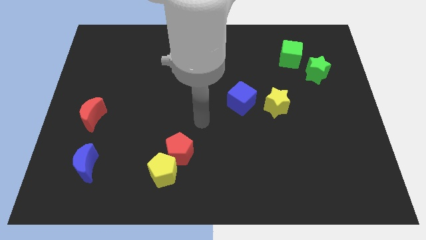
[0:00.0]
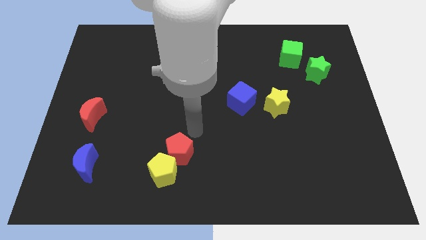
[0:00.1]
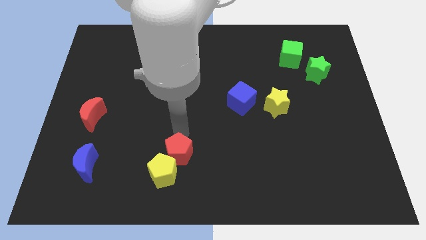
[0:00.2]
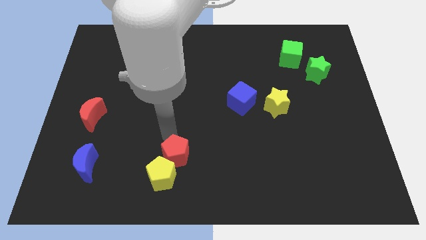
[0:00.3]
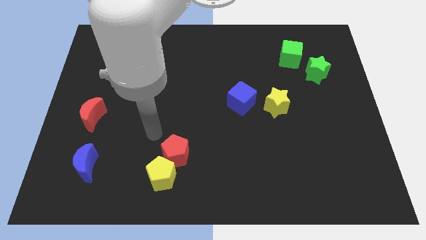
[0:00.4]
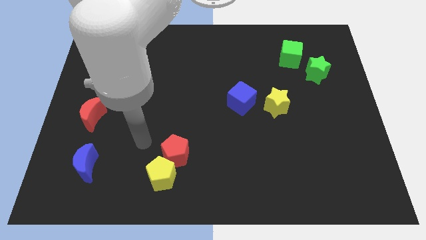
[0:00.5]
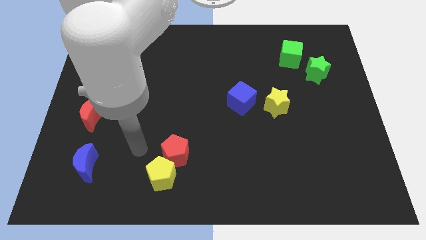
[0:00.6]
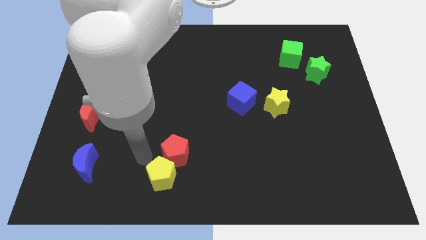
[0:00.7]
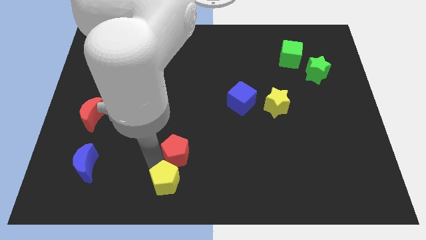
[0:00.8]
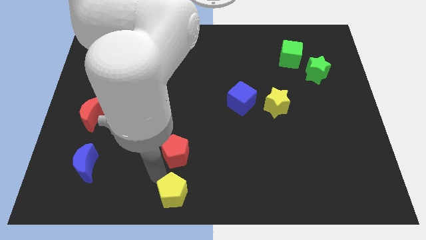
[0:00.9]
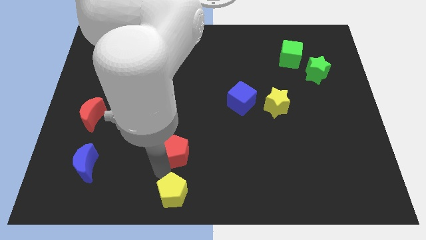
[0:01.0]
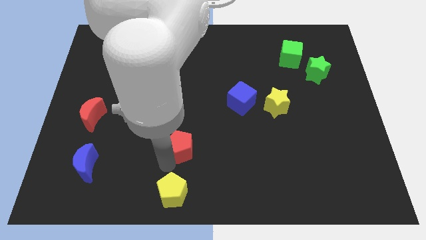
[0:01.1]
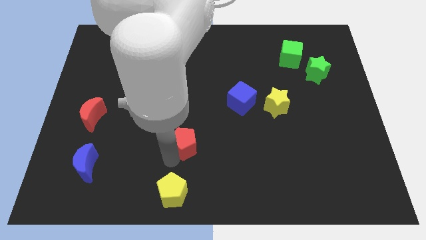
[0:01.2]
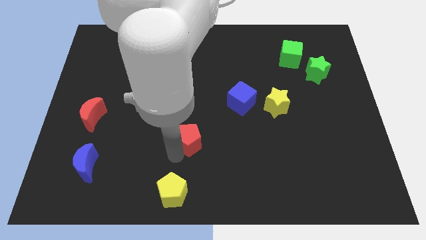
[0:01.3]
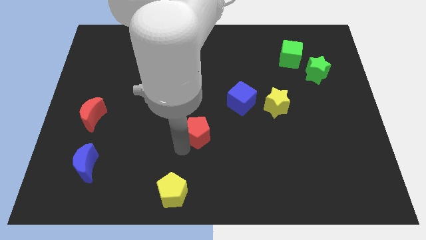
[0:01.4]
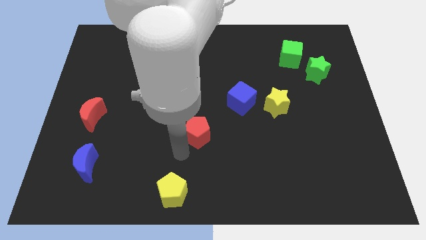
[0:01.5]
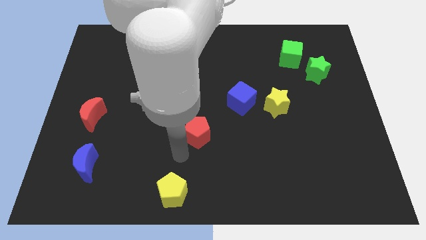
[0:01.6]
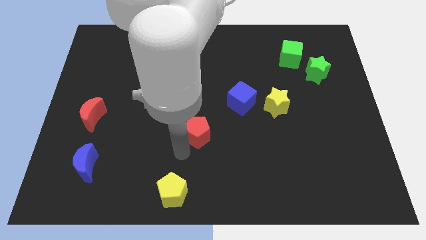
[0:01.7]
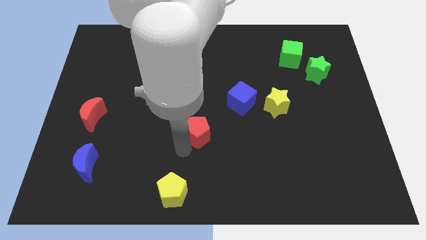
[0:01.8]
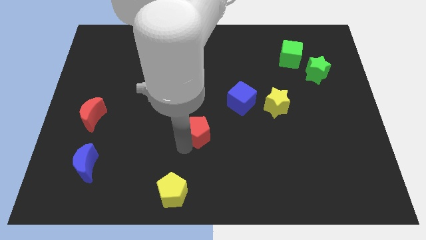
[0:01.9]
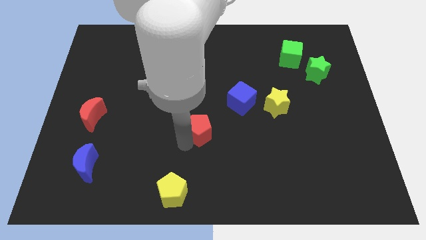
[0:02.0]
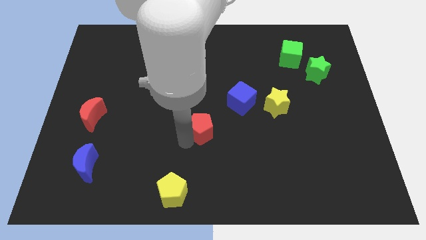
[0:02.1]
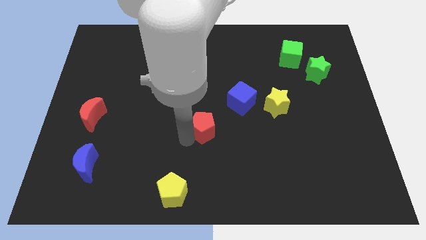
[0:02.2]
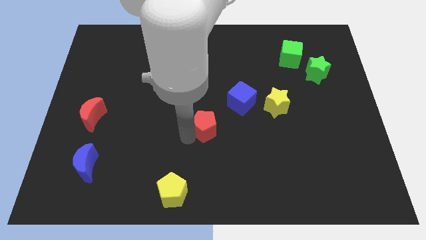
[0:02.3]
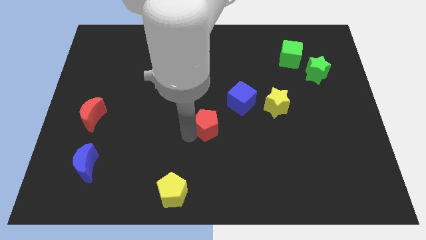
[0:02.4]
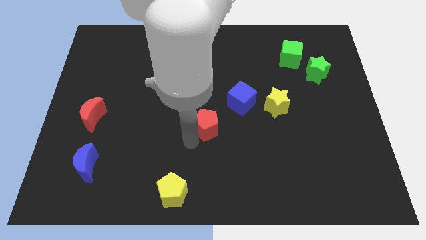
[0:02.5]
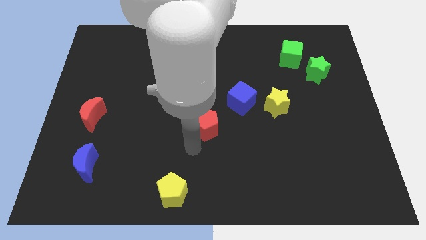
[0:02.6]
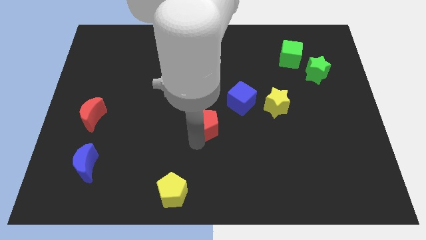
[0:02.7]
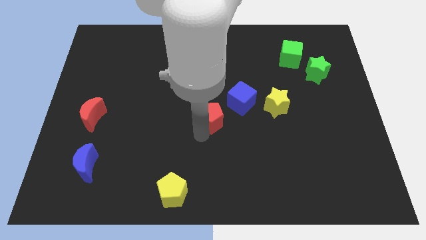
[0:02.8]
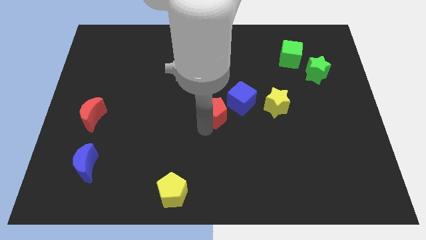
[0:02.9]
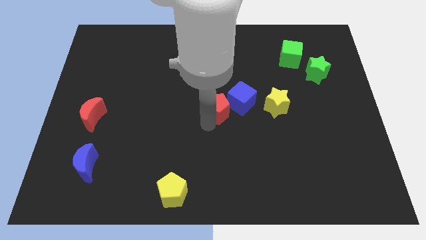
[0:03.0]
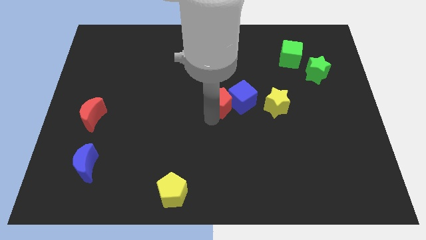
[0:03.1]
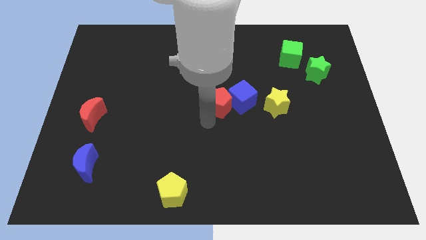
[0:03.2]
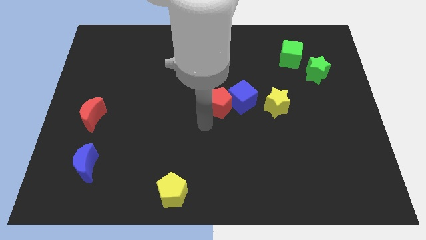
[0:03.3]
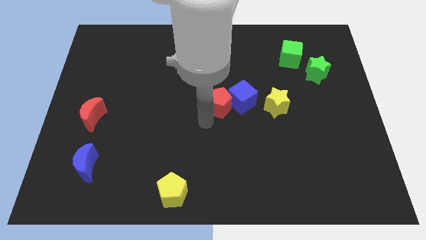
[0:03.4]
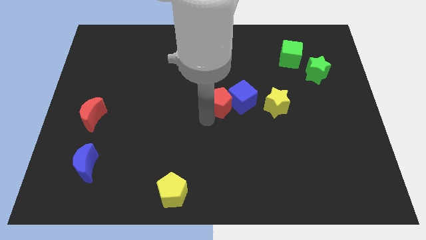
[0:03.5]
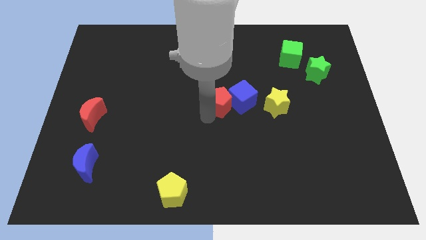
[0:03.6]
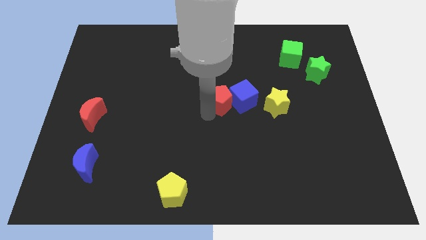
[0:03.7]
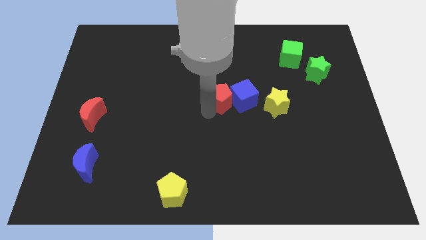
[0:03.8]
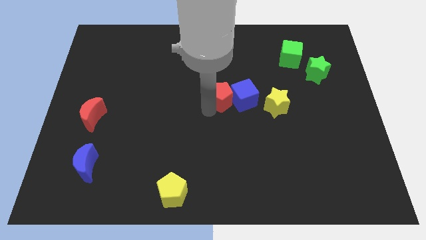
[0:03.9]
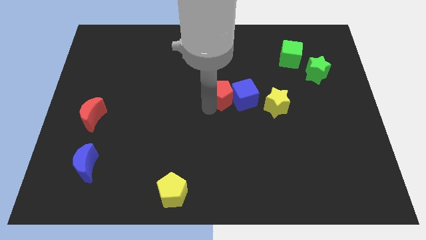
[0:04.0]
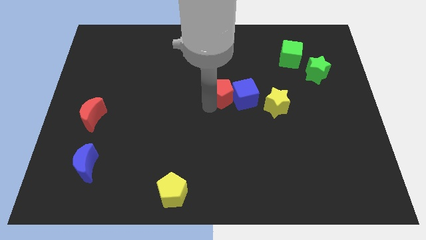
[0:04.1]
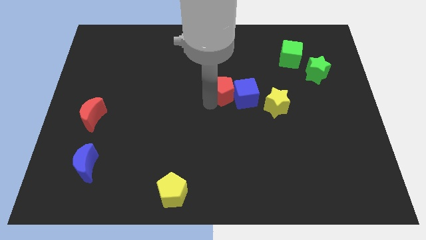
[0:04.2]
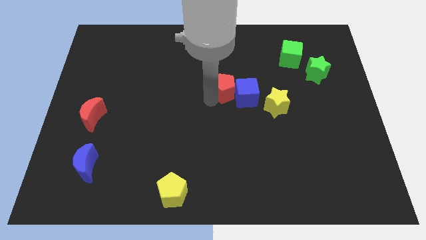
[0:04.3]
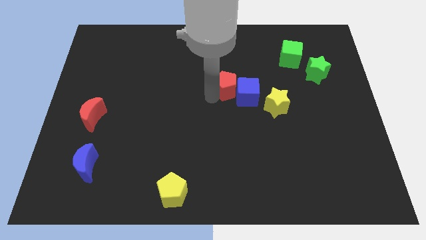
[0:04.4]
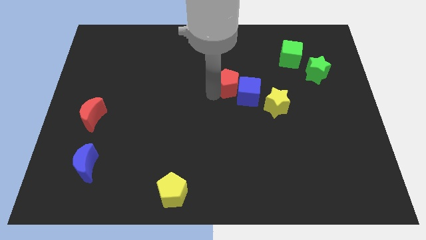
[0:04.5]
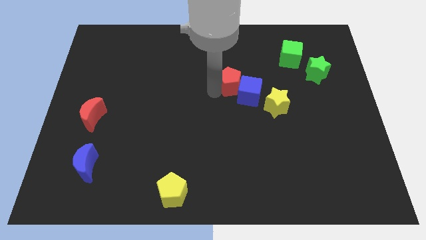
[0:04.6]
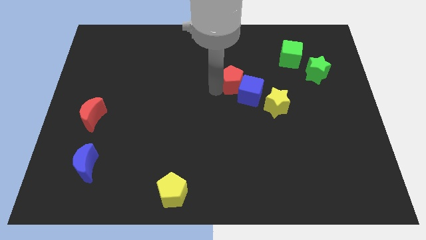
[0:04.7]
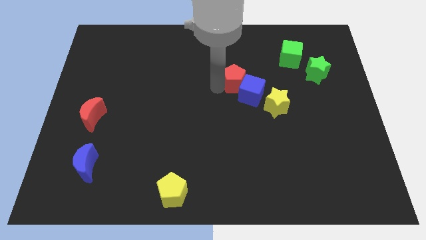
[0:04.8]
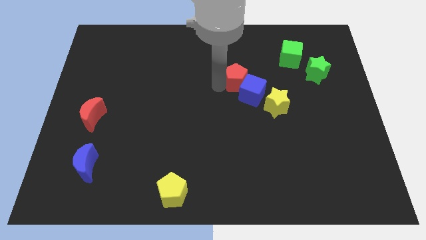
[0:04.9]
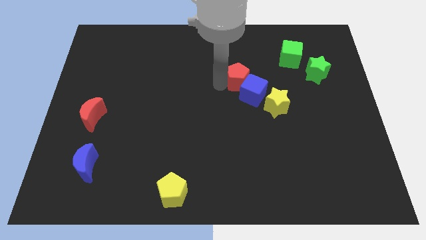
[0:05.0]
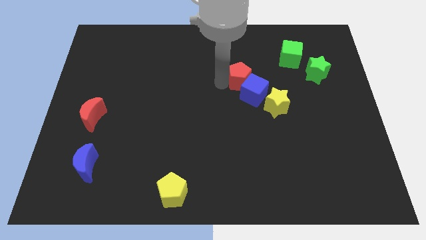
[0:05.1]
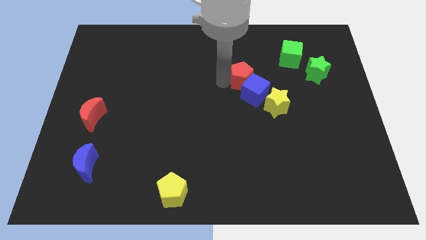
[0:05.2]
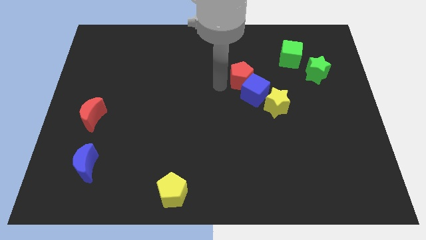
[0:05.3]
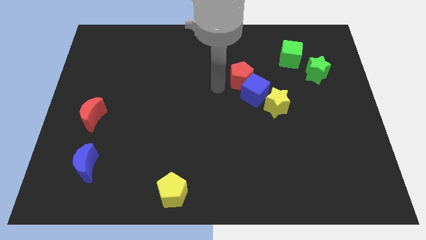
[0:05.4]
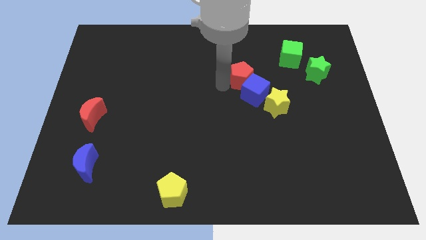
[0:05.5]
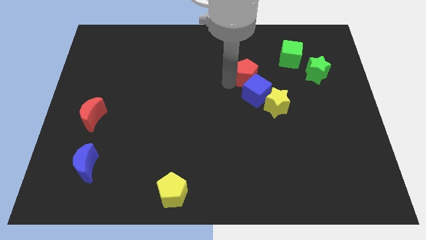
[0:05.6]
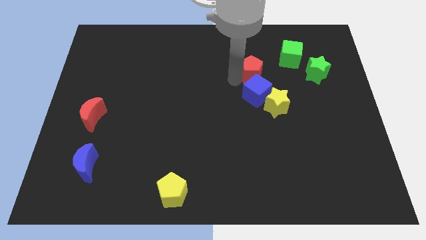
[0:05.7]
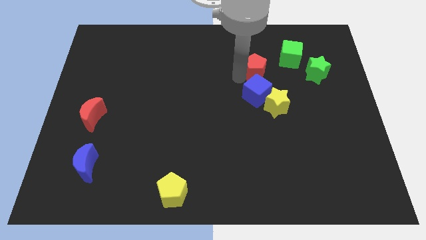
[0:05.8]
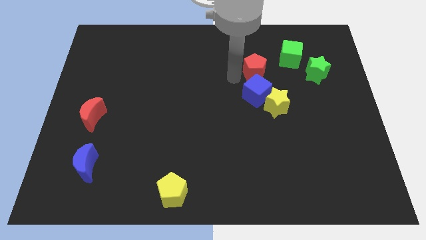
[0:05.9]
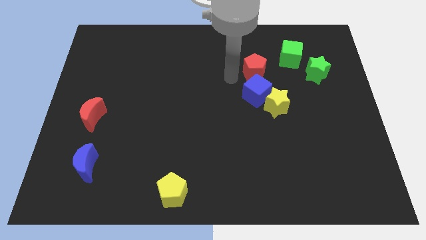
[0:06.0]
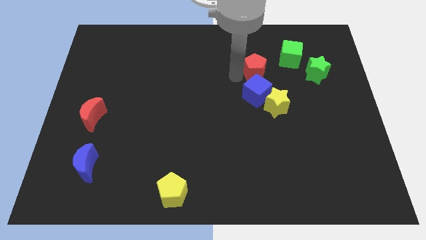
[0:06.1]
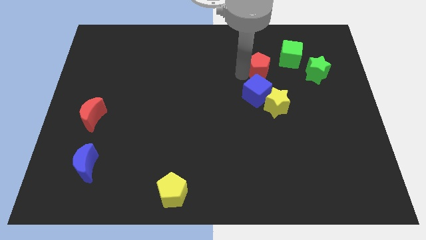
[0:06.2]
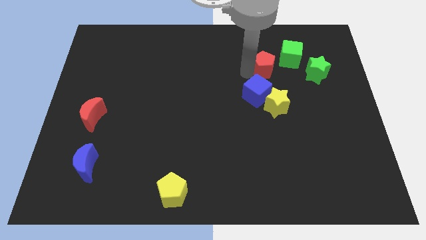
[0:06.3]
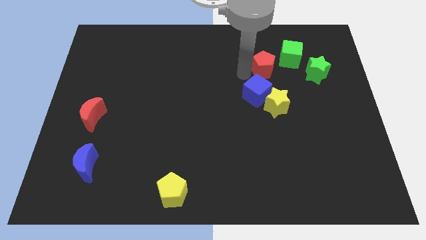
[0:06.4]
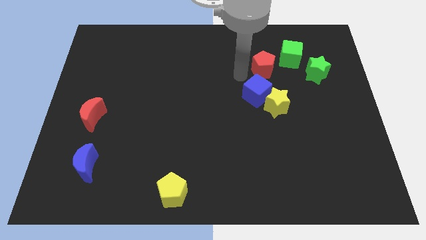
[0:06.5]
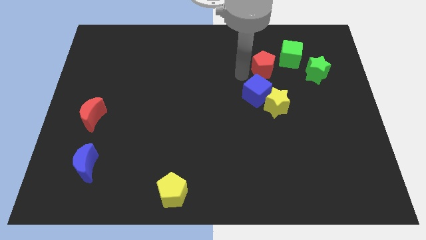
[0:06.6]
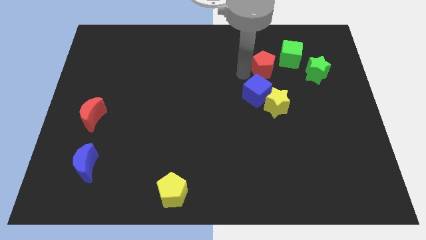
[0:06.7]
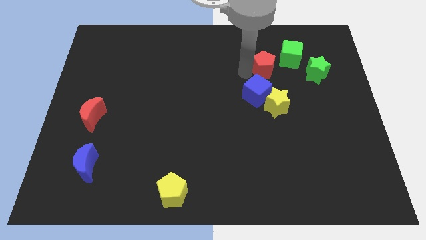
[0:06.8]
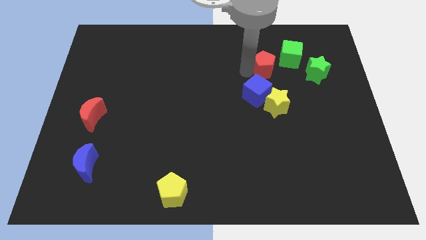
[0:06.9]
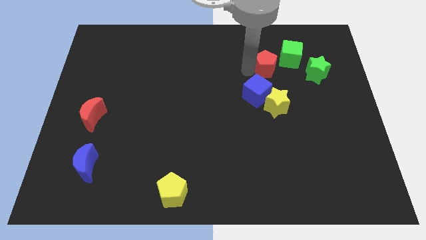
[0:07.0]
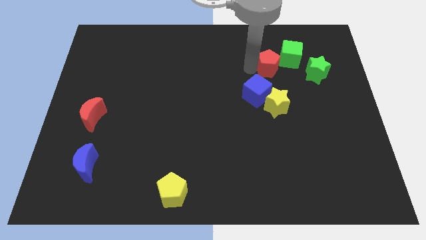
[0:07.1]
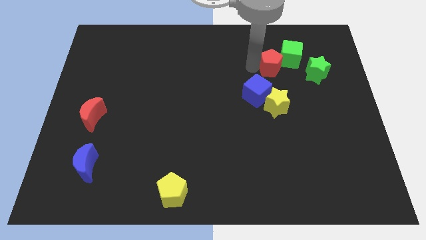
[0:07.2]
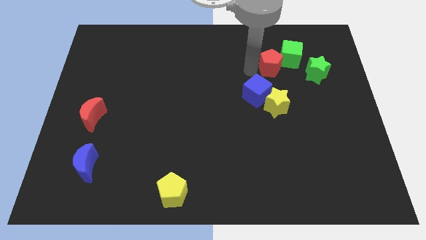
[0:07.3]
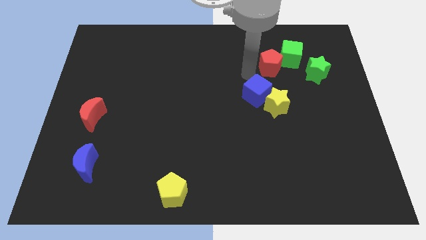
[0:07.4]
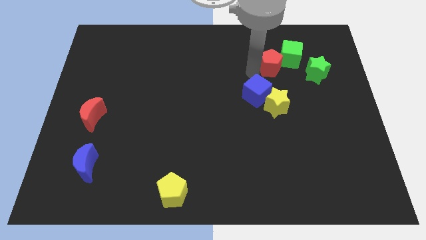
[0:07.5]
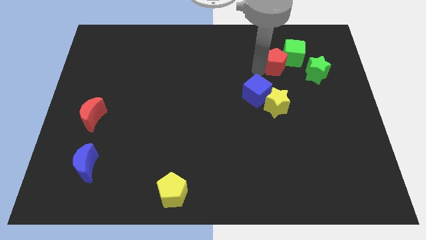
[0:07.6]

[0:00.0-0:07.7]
move the red pentagon to the green cube
